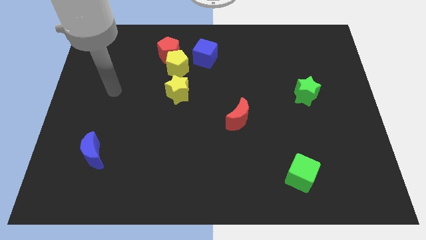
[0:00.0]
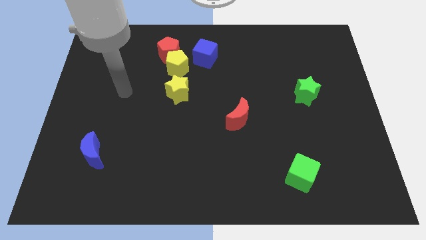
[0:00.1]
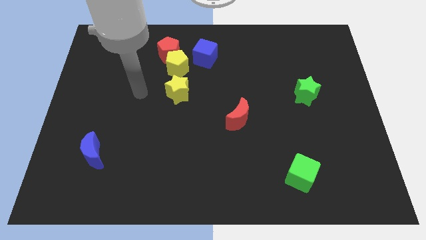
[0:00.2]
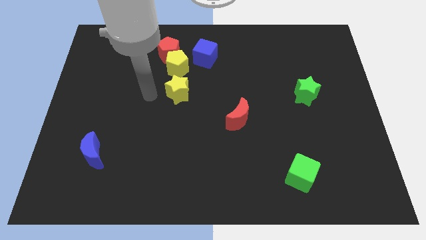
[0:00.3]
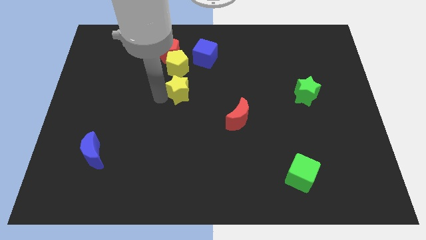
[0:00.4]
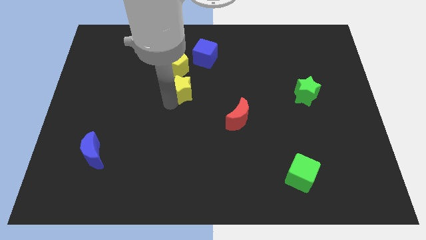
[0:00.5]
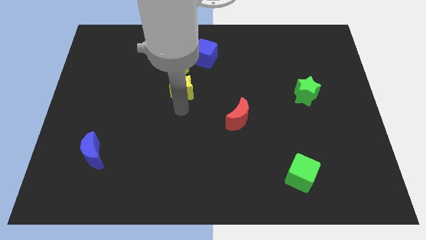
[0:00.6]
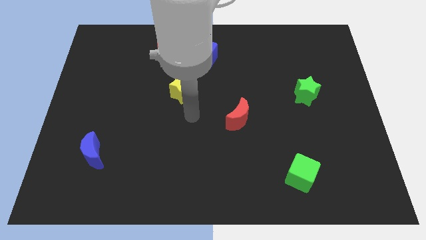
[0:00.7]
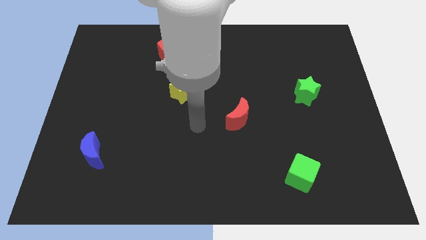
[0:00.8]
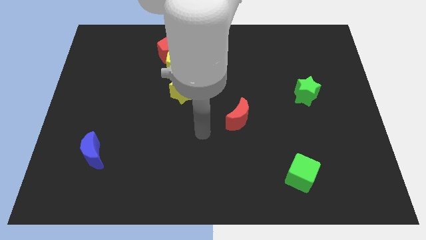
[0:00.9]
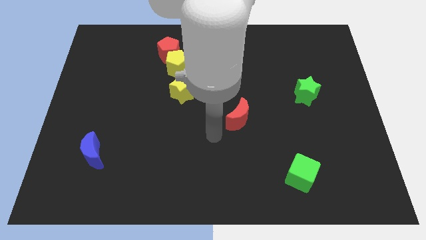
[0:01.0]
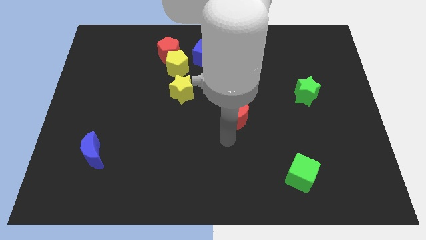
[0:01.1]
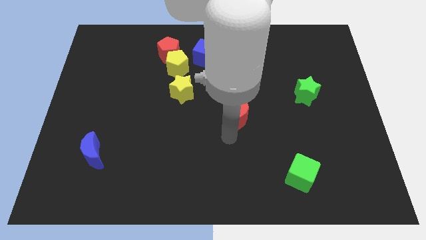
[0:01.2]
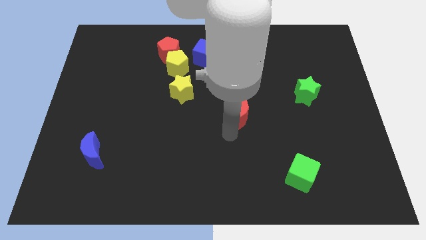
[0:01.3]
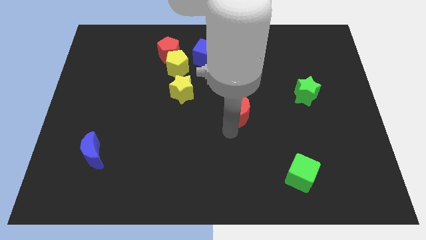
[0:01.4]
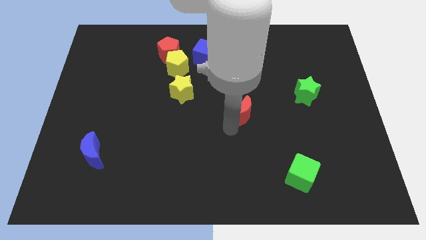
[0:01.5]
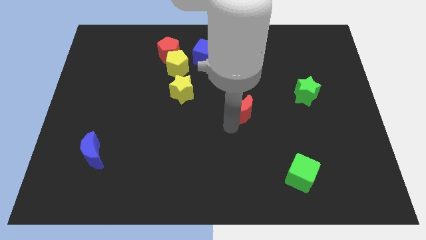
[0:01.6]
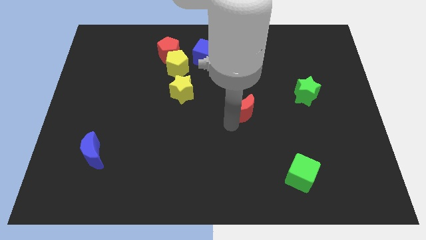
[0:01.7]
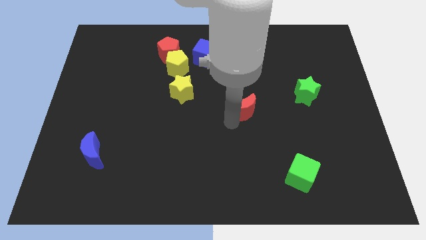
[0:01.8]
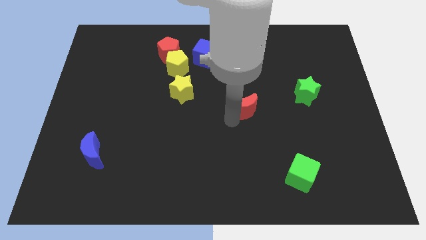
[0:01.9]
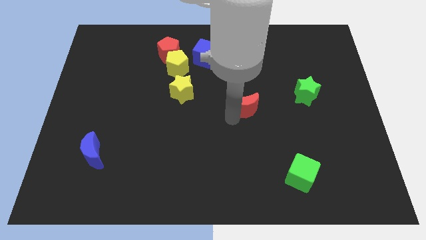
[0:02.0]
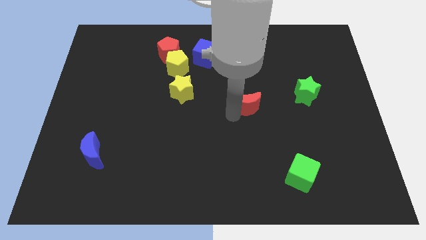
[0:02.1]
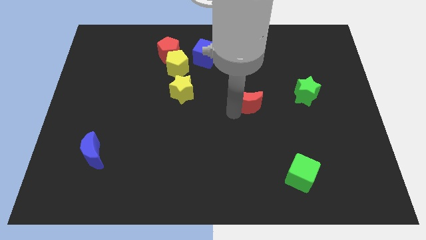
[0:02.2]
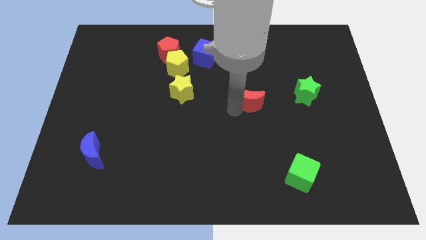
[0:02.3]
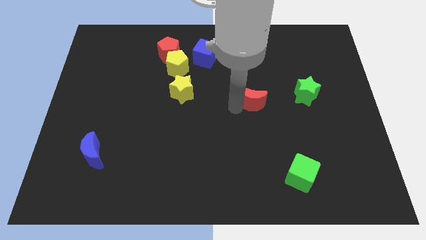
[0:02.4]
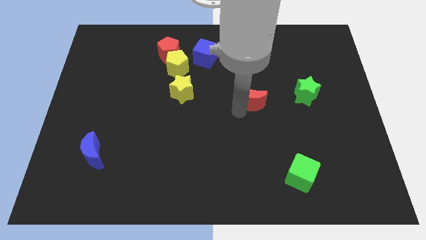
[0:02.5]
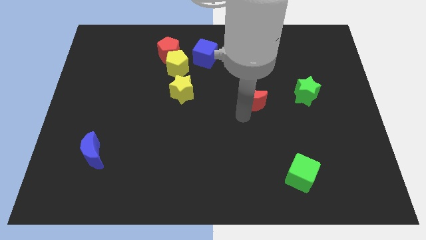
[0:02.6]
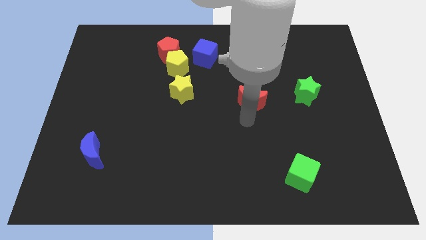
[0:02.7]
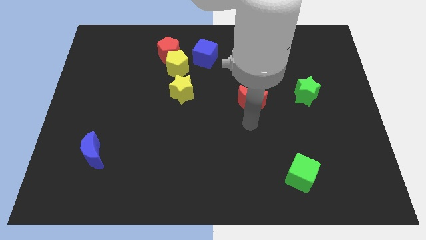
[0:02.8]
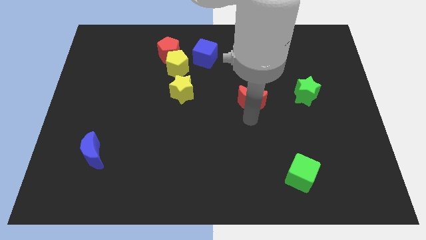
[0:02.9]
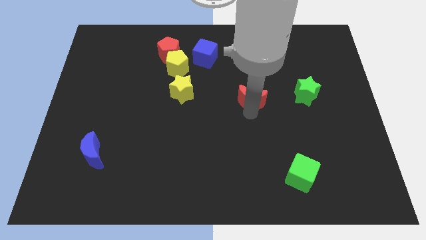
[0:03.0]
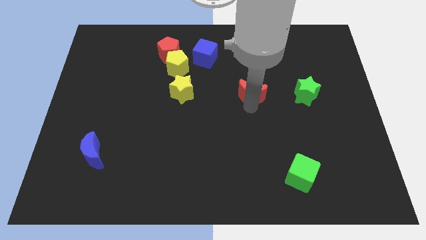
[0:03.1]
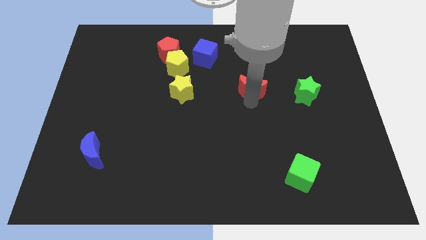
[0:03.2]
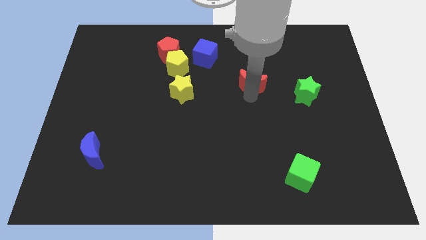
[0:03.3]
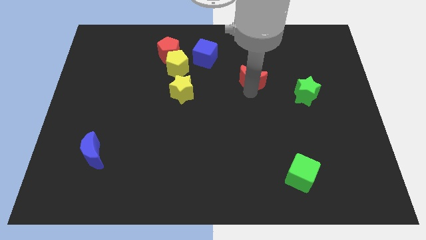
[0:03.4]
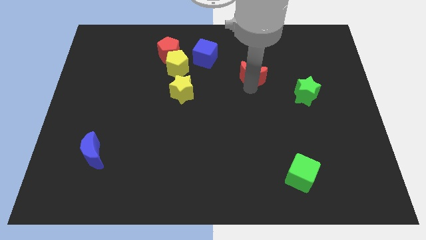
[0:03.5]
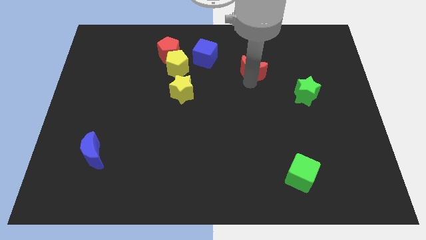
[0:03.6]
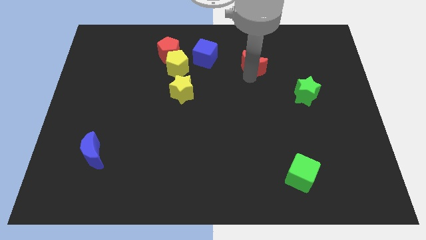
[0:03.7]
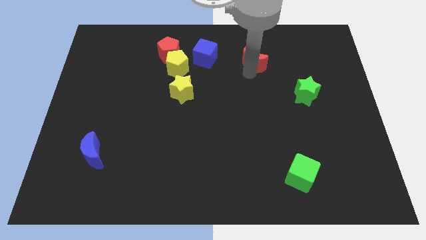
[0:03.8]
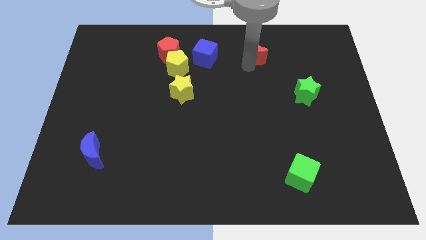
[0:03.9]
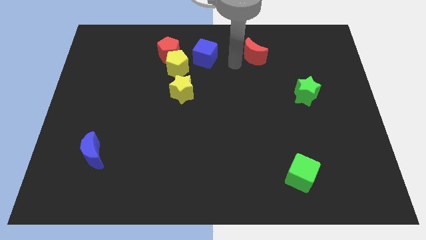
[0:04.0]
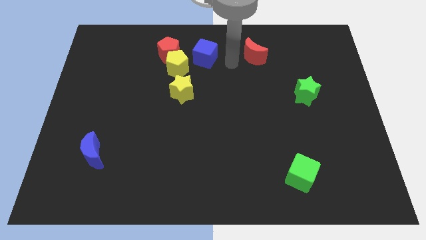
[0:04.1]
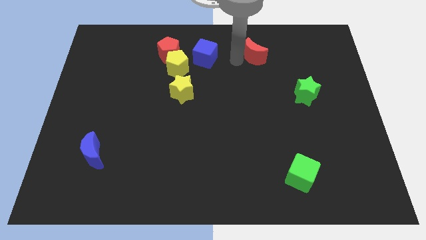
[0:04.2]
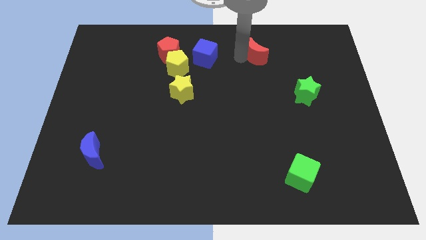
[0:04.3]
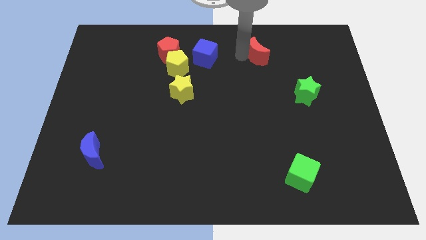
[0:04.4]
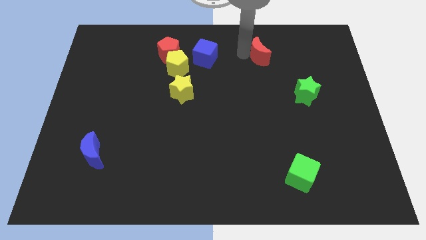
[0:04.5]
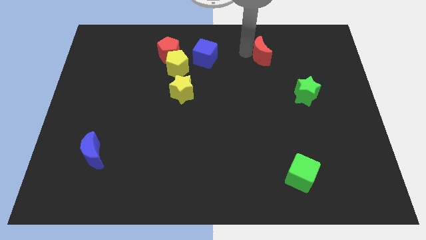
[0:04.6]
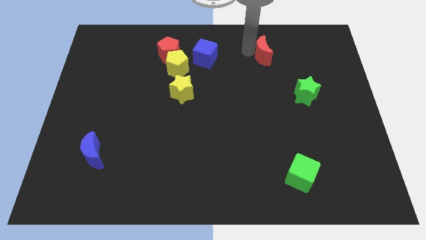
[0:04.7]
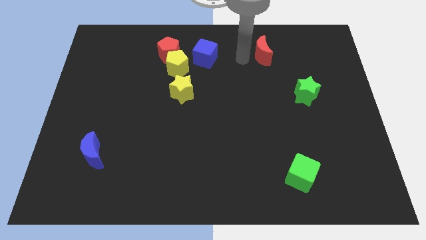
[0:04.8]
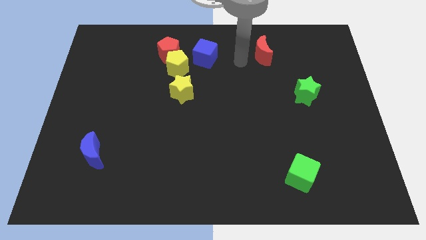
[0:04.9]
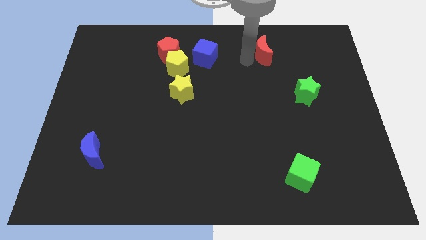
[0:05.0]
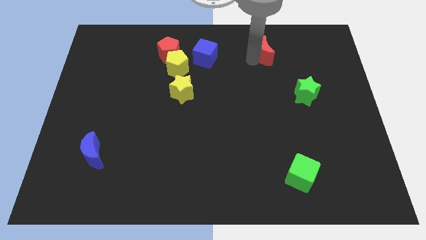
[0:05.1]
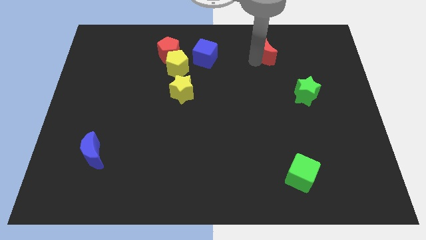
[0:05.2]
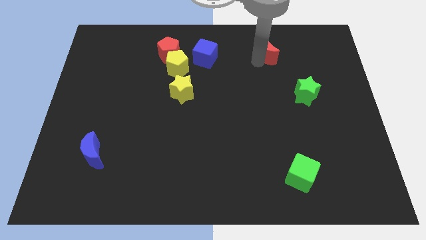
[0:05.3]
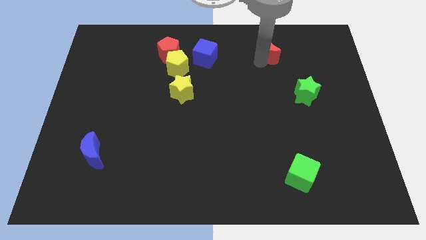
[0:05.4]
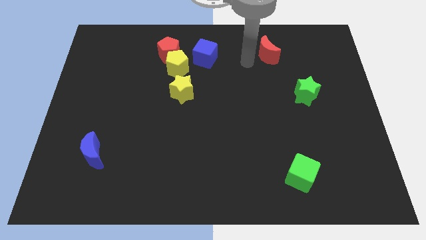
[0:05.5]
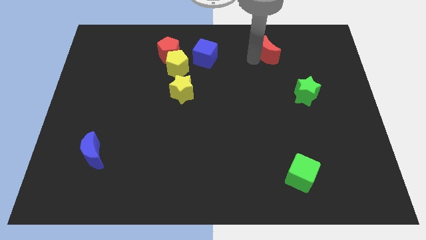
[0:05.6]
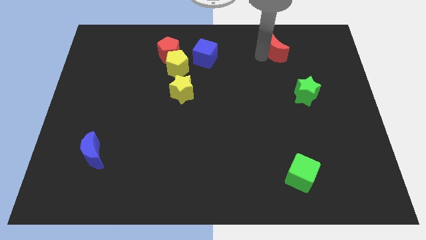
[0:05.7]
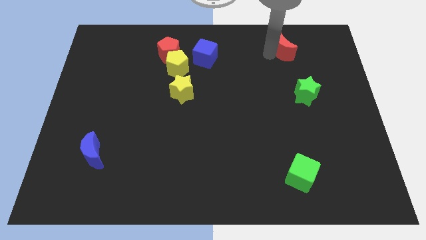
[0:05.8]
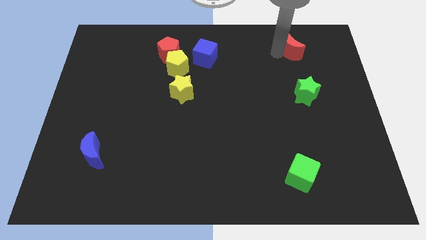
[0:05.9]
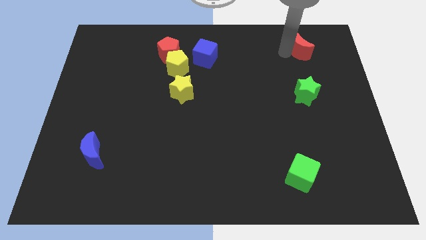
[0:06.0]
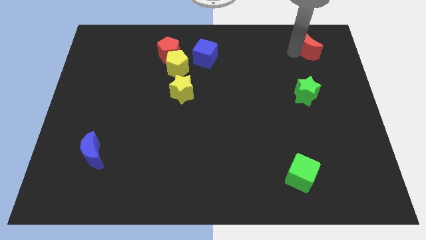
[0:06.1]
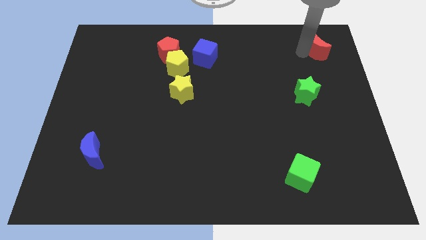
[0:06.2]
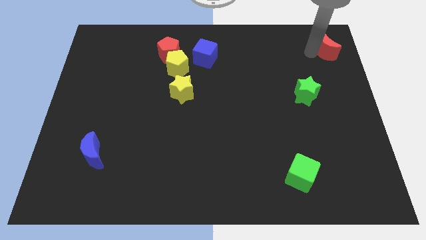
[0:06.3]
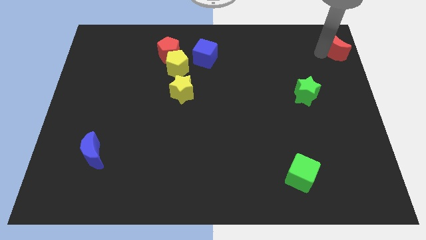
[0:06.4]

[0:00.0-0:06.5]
slide the red moon to the top right of the board
